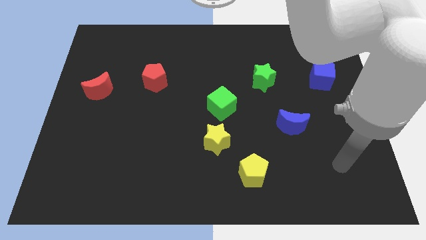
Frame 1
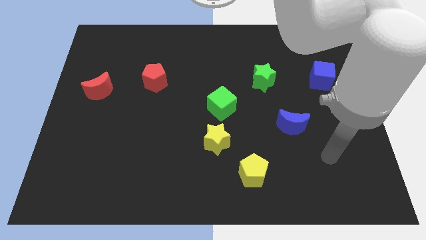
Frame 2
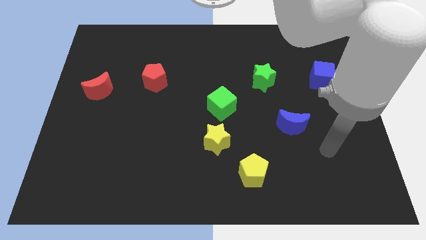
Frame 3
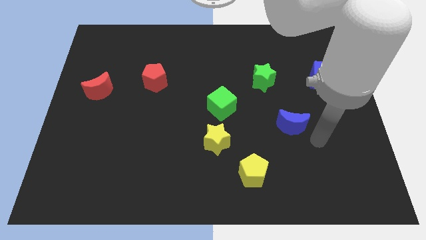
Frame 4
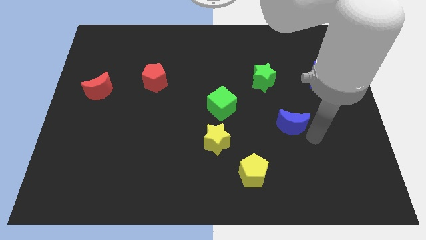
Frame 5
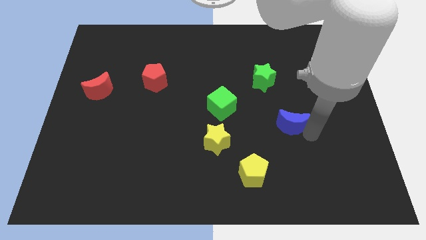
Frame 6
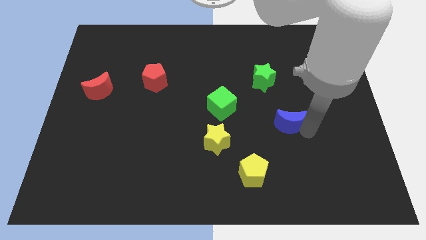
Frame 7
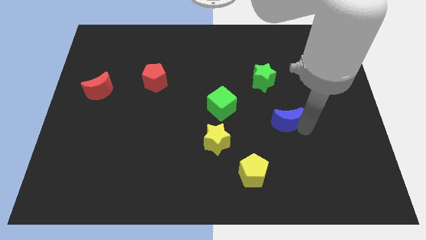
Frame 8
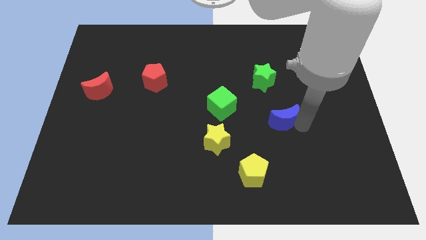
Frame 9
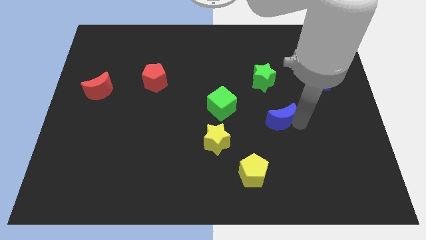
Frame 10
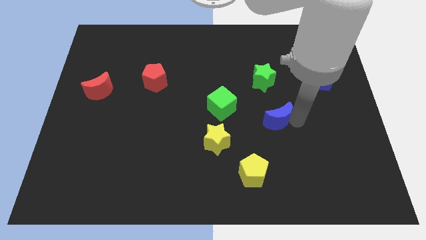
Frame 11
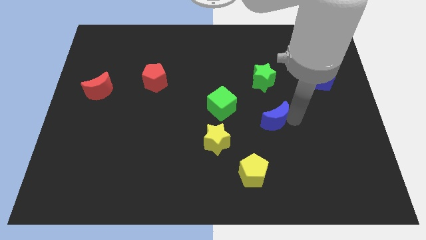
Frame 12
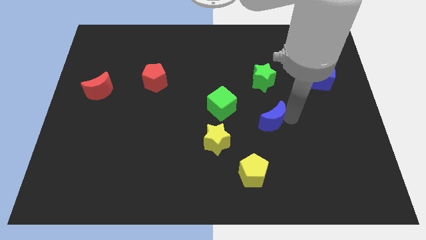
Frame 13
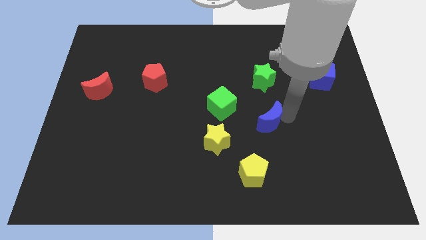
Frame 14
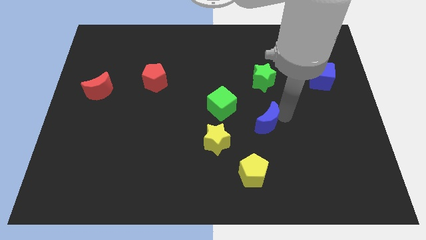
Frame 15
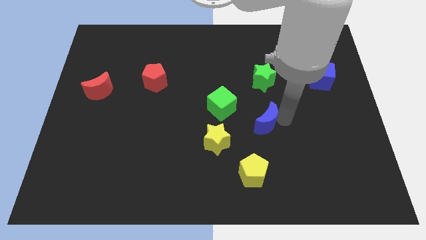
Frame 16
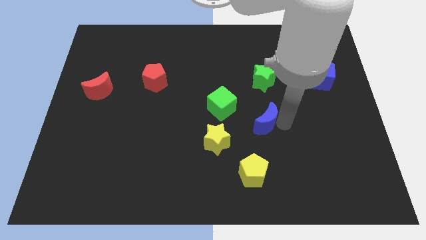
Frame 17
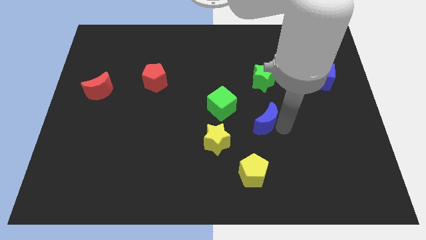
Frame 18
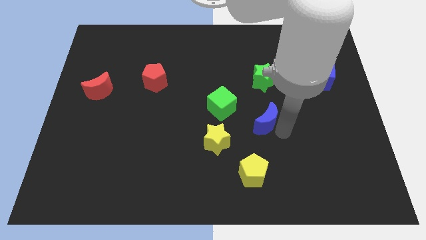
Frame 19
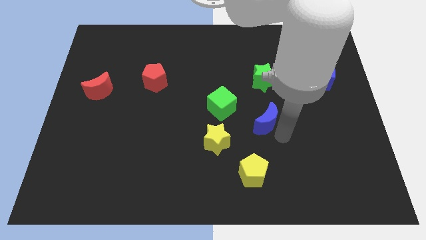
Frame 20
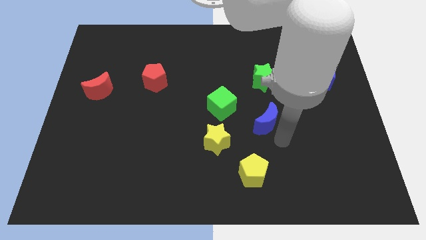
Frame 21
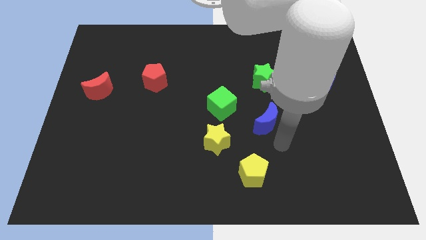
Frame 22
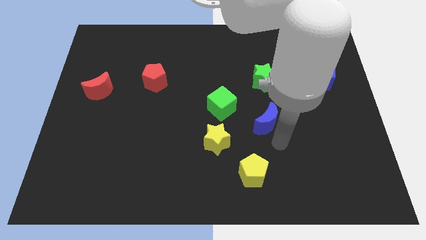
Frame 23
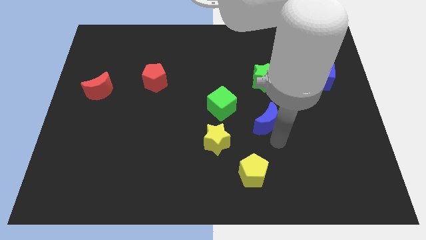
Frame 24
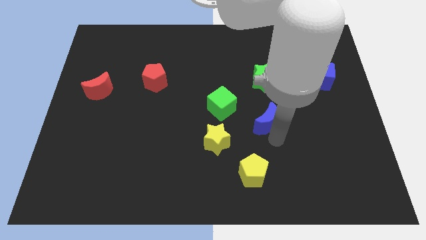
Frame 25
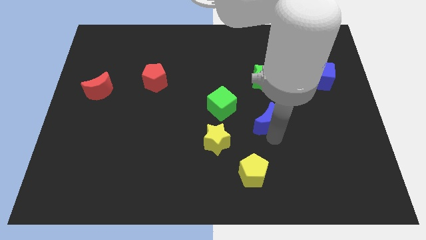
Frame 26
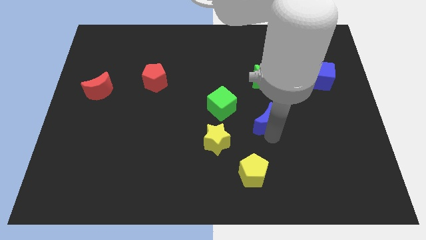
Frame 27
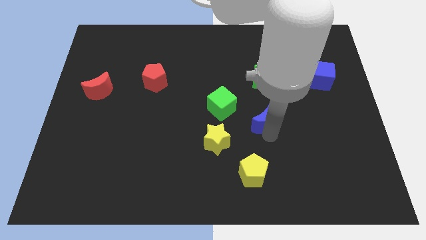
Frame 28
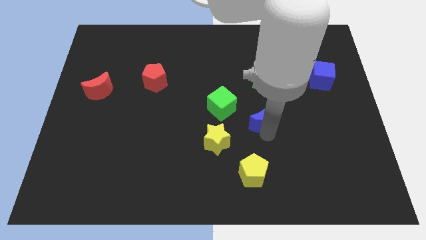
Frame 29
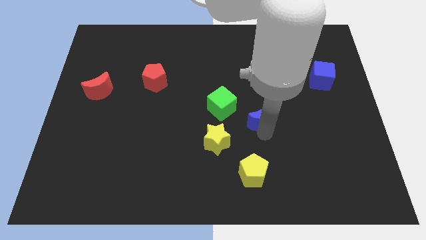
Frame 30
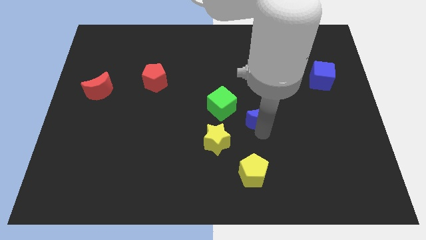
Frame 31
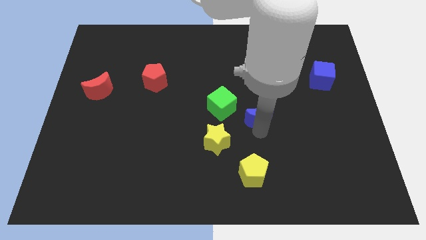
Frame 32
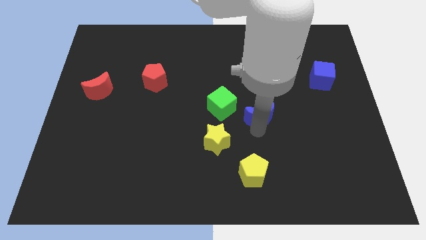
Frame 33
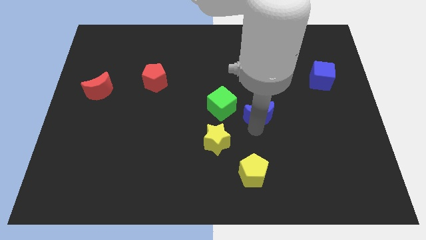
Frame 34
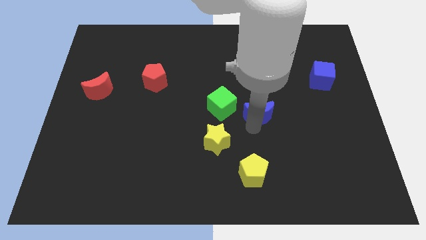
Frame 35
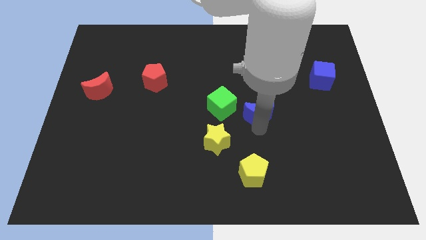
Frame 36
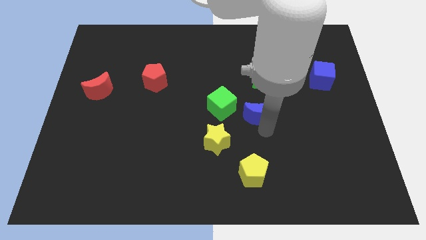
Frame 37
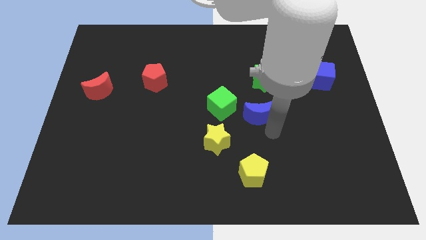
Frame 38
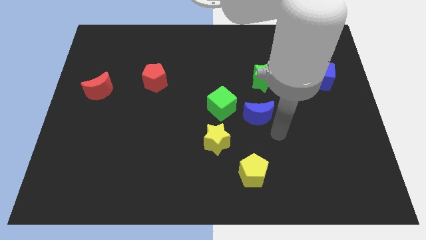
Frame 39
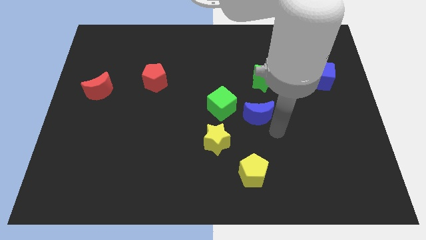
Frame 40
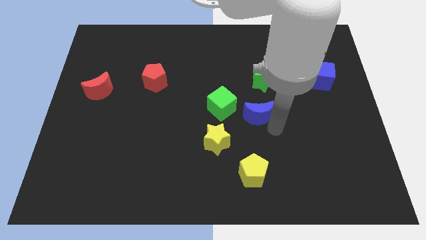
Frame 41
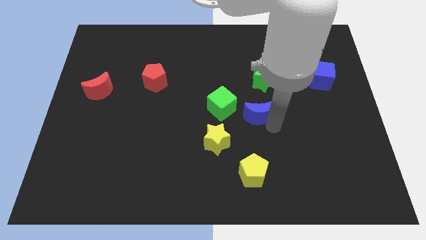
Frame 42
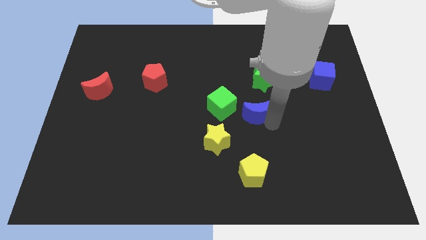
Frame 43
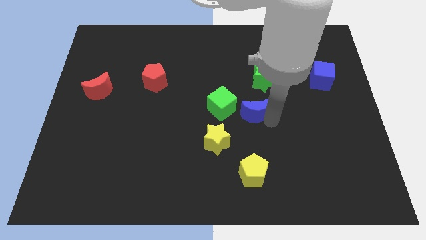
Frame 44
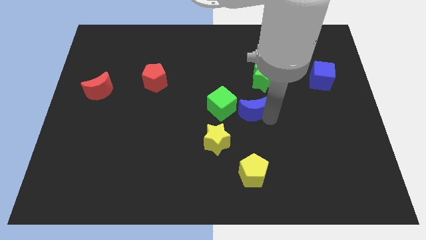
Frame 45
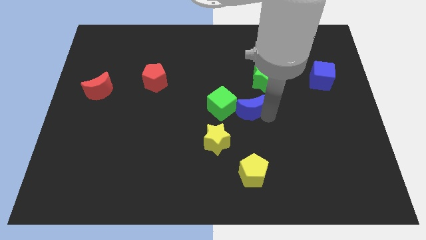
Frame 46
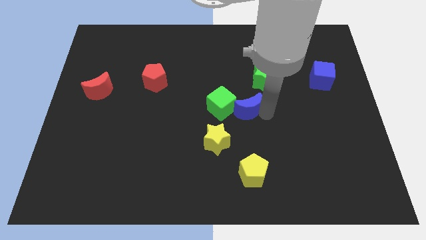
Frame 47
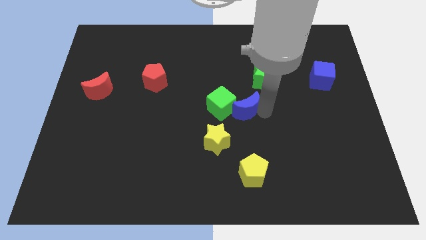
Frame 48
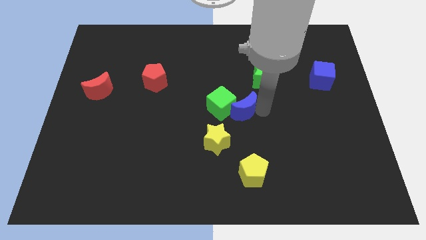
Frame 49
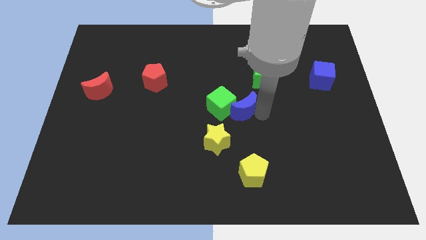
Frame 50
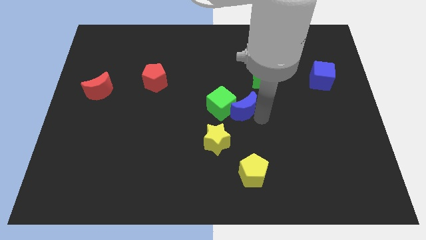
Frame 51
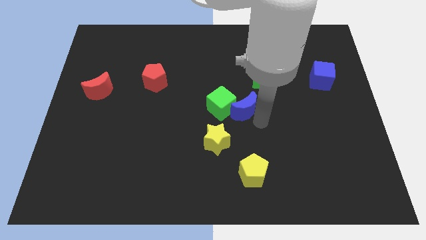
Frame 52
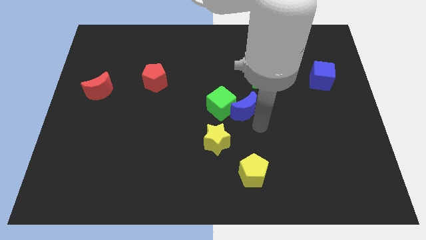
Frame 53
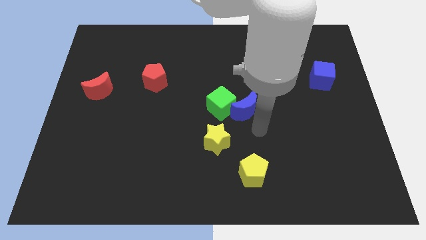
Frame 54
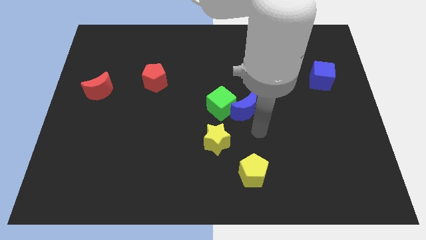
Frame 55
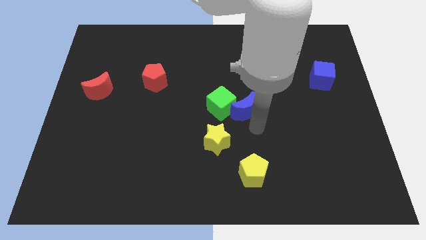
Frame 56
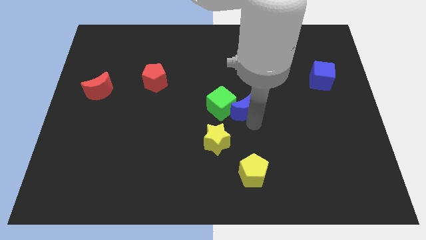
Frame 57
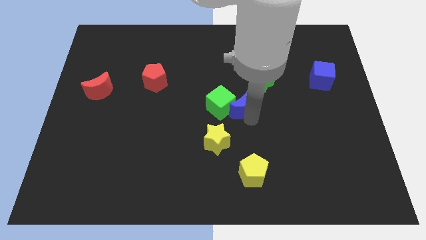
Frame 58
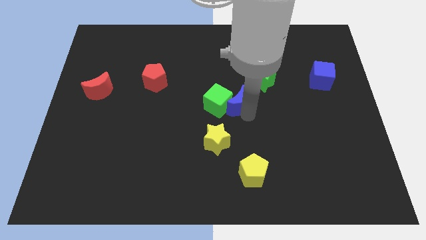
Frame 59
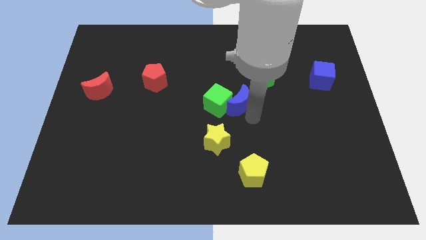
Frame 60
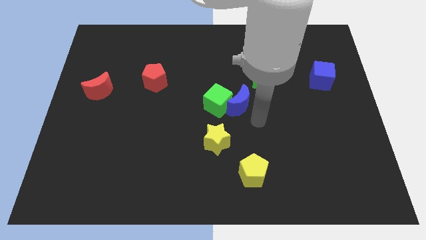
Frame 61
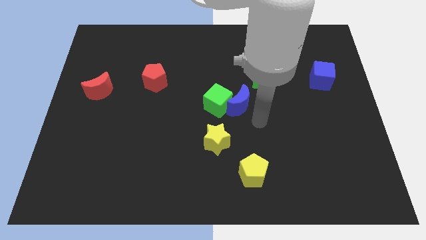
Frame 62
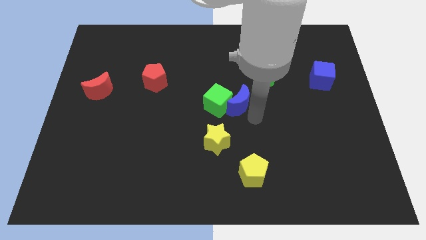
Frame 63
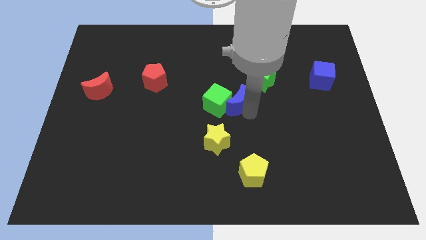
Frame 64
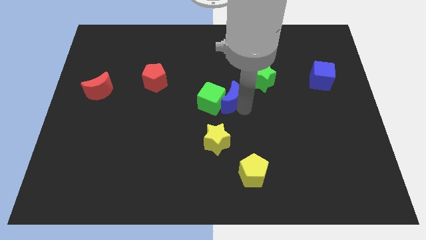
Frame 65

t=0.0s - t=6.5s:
slide the blue moon to the top side of the yellow star
